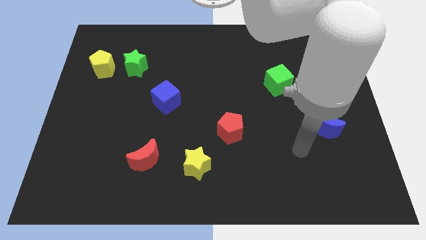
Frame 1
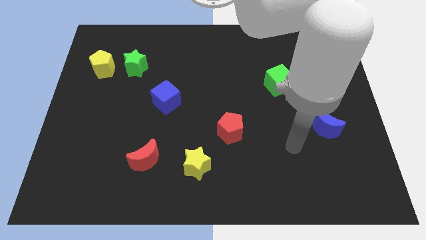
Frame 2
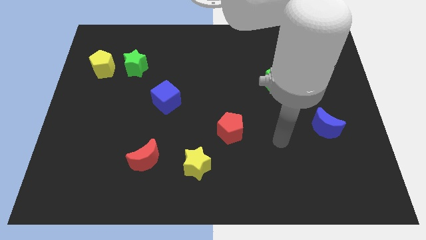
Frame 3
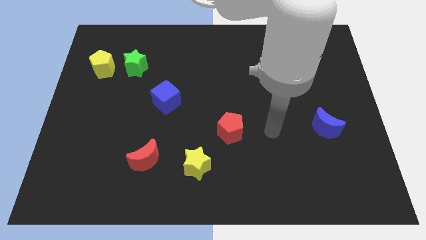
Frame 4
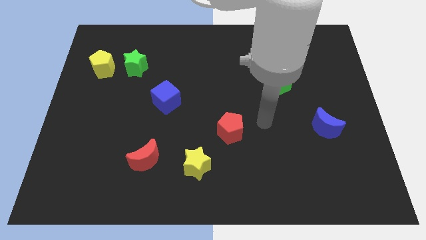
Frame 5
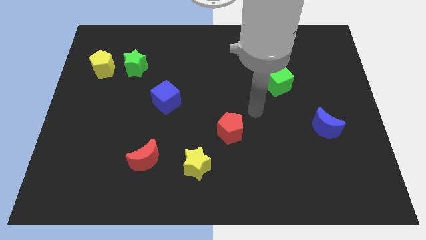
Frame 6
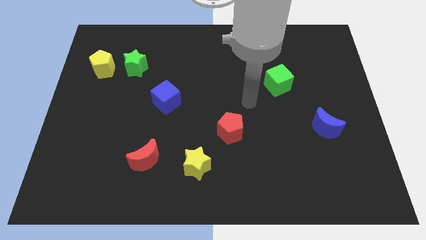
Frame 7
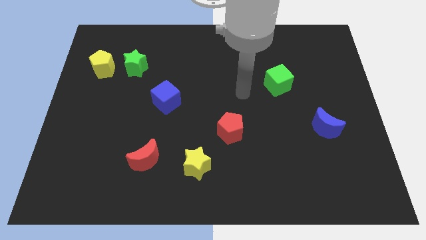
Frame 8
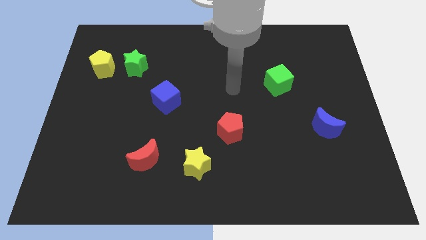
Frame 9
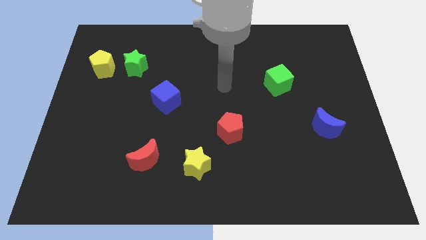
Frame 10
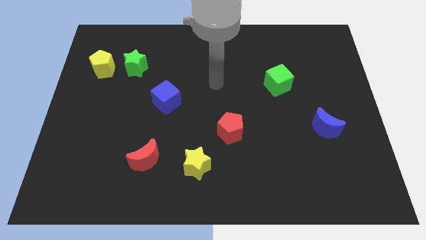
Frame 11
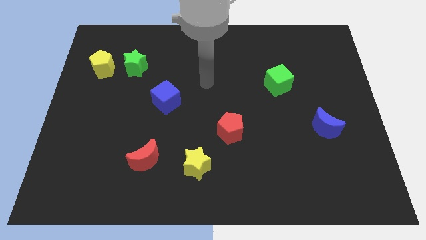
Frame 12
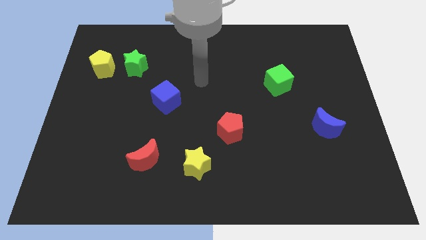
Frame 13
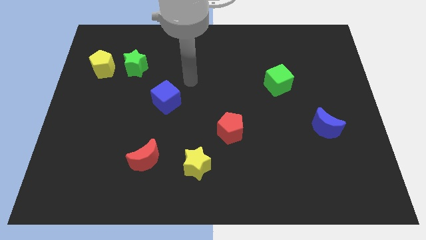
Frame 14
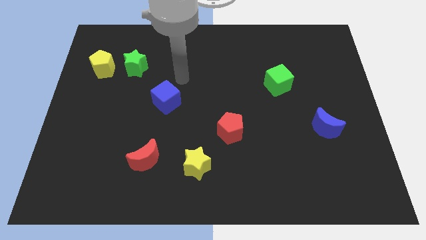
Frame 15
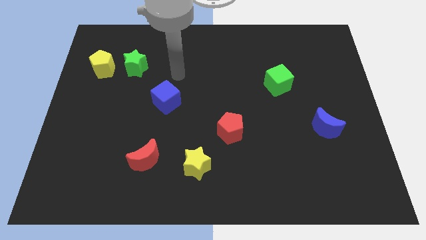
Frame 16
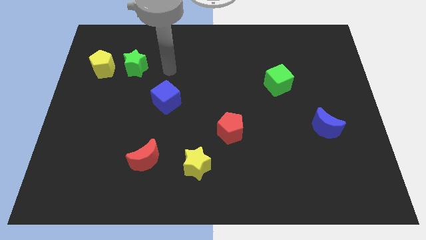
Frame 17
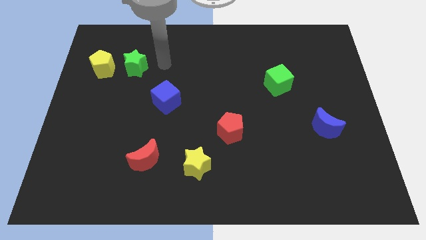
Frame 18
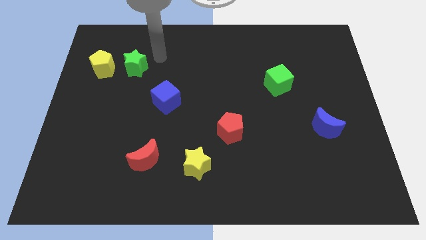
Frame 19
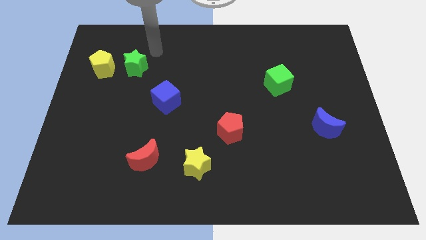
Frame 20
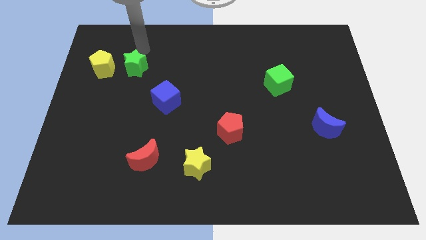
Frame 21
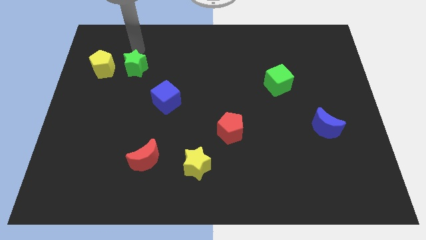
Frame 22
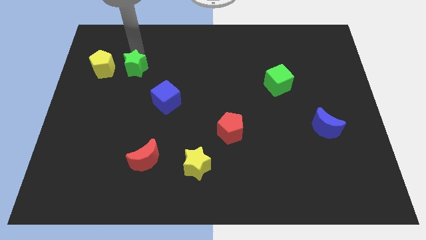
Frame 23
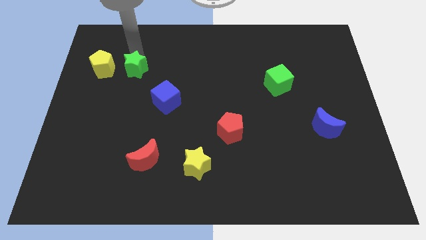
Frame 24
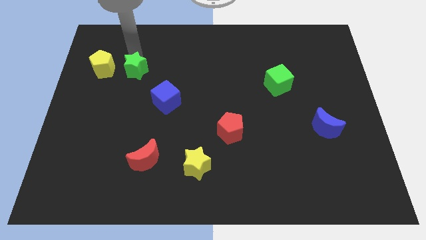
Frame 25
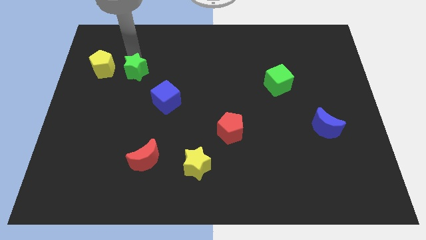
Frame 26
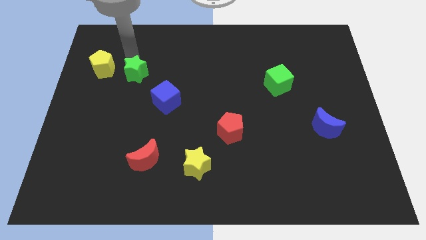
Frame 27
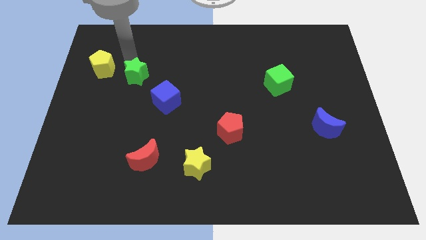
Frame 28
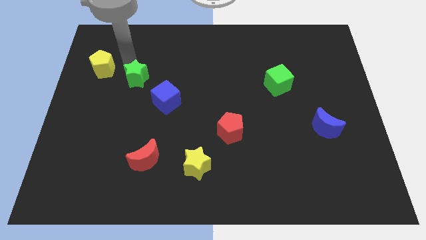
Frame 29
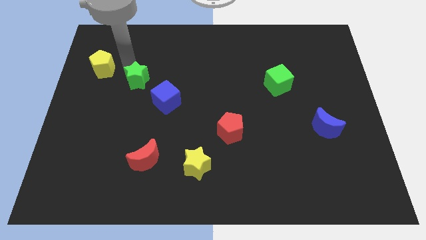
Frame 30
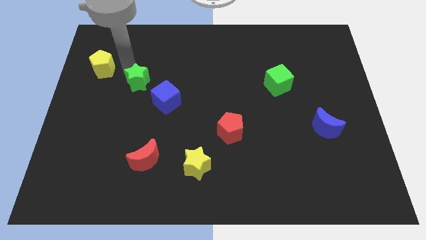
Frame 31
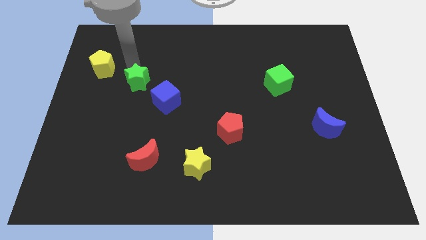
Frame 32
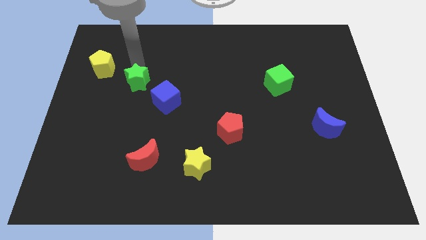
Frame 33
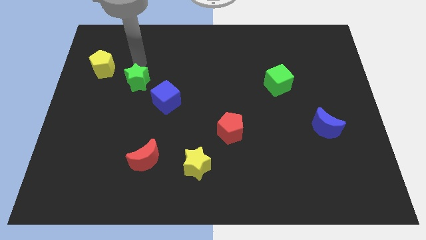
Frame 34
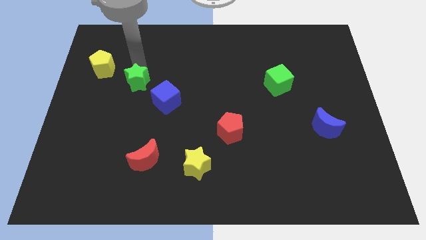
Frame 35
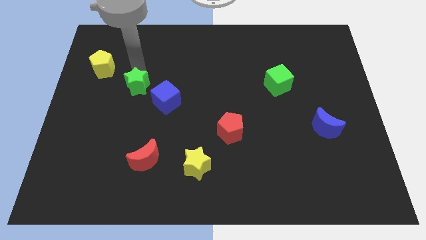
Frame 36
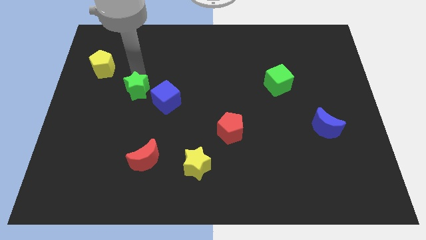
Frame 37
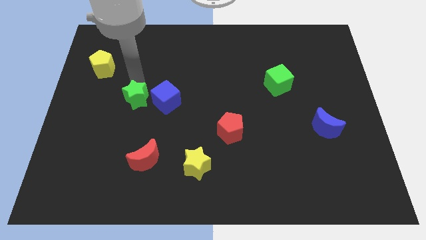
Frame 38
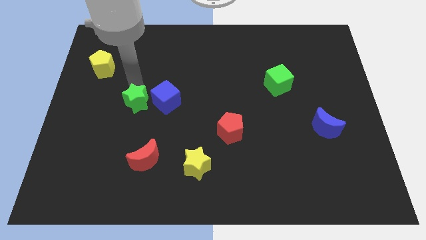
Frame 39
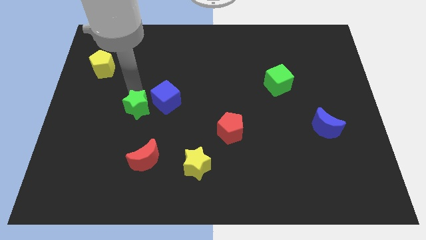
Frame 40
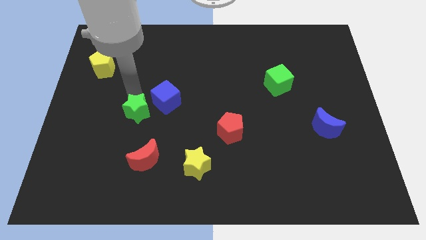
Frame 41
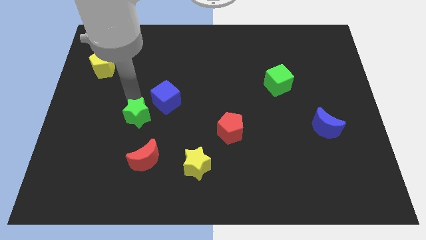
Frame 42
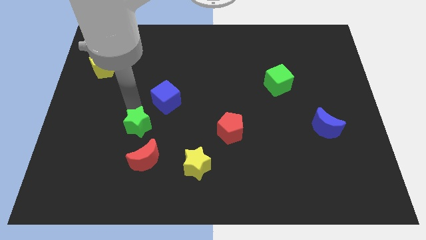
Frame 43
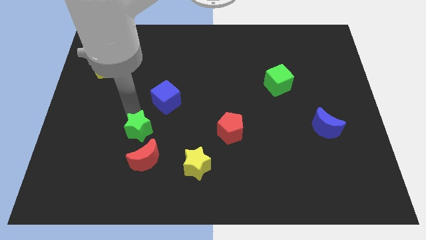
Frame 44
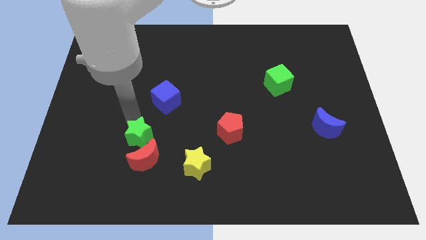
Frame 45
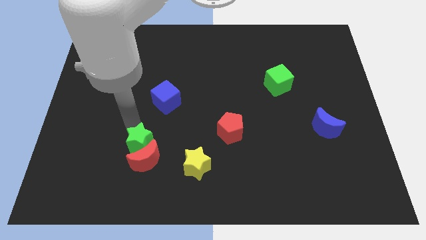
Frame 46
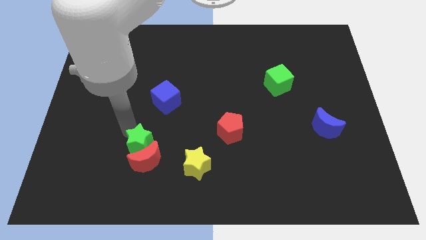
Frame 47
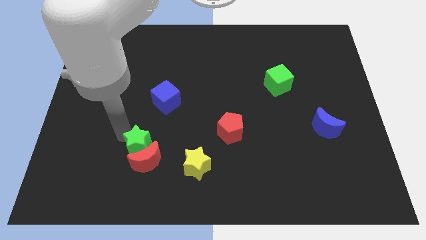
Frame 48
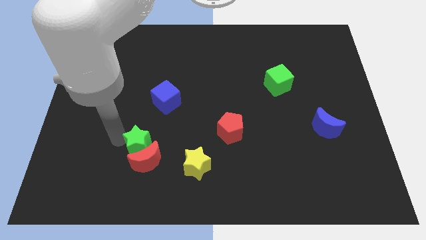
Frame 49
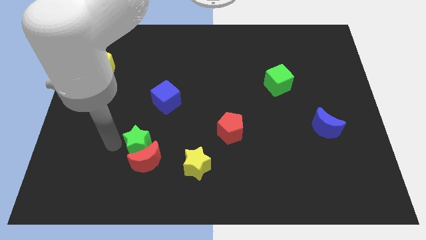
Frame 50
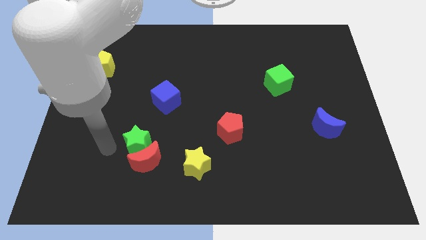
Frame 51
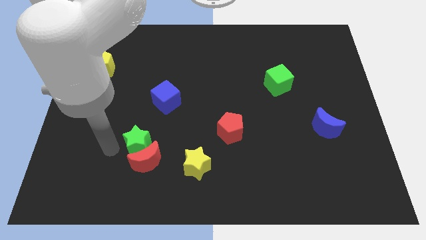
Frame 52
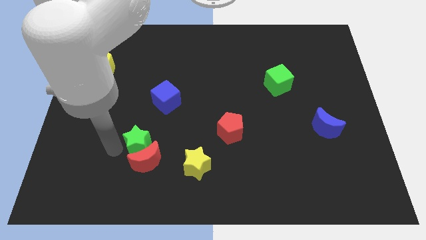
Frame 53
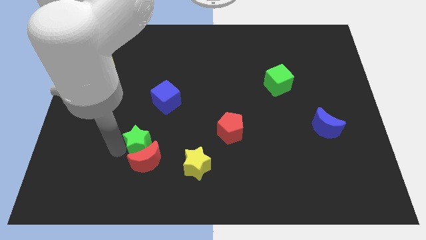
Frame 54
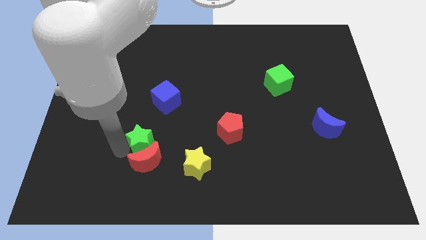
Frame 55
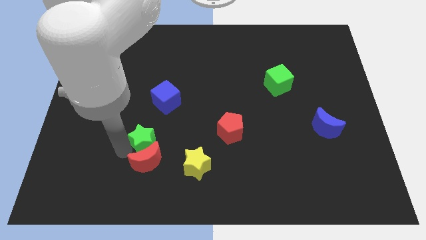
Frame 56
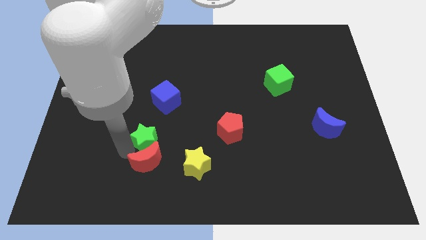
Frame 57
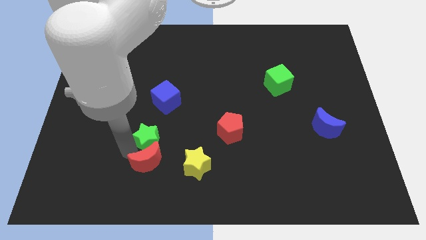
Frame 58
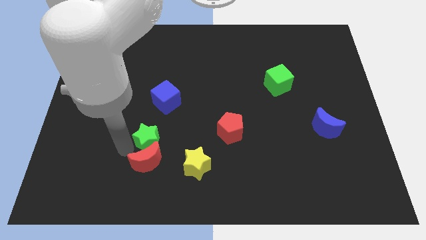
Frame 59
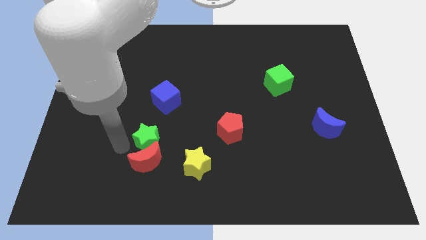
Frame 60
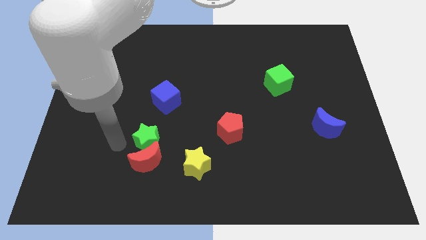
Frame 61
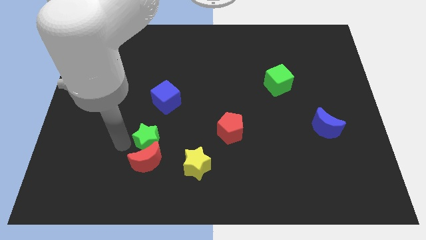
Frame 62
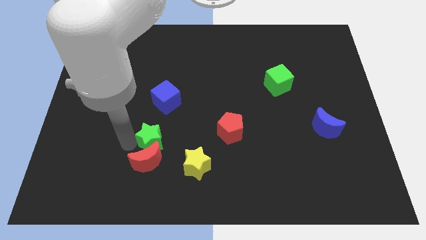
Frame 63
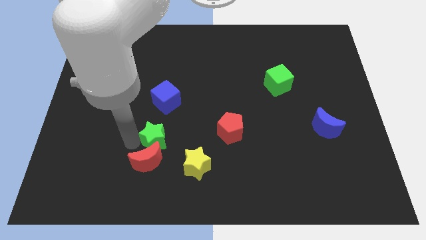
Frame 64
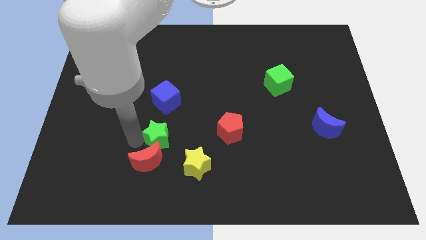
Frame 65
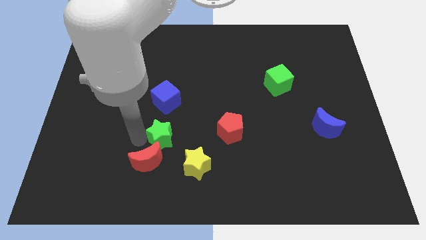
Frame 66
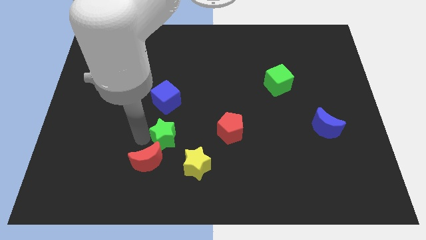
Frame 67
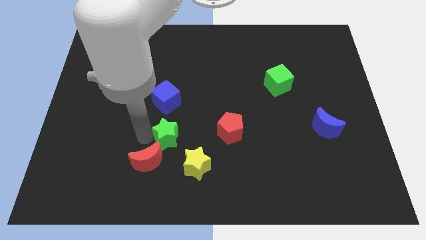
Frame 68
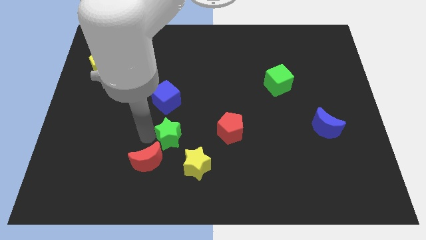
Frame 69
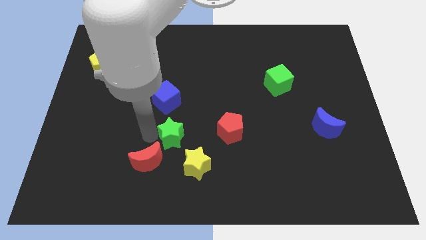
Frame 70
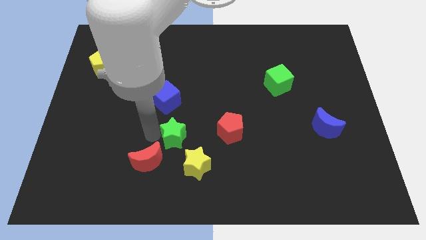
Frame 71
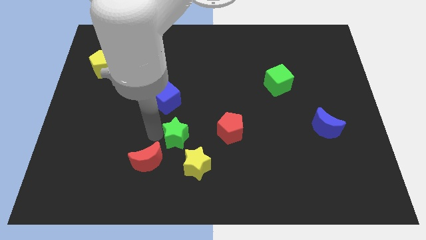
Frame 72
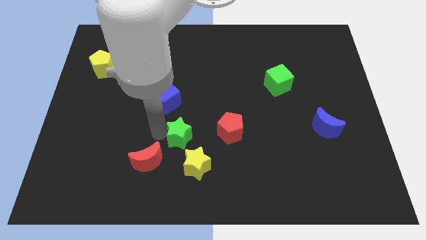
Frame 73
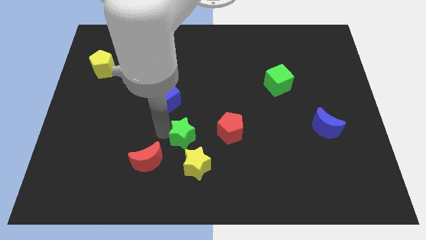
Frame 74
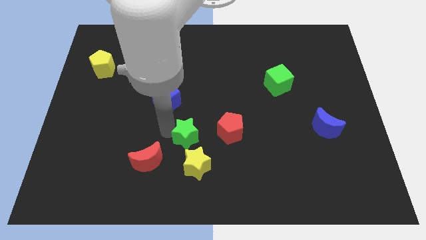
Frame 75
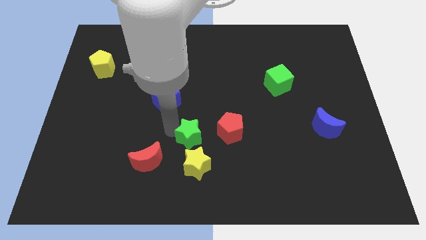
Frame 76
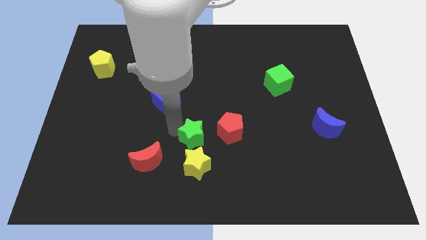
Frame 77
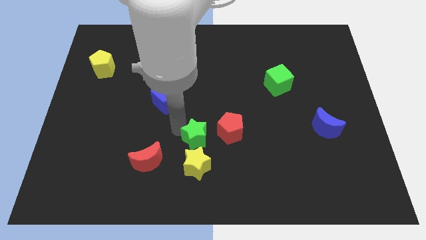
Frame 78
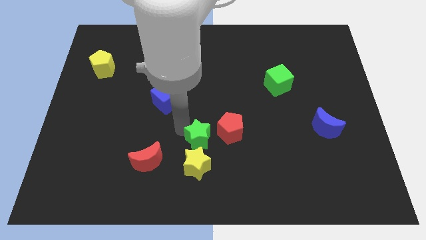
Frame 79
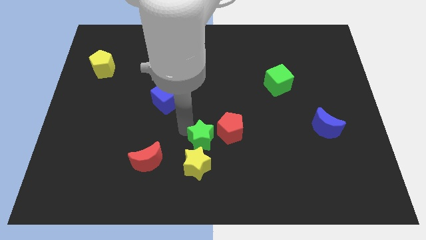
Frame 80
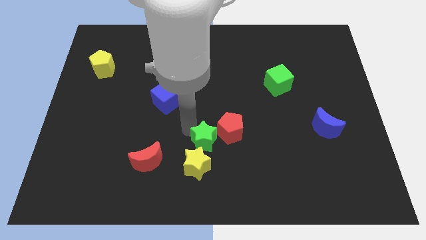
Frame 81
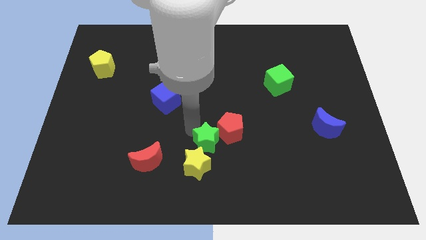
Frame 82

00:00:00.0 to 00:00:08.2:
slide the green star to the yellow star
